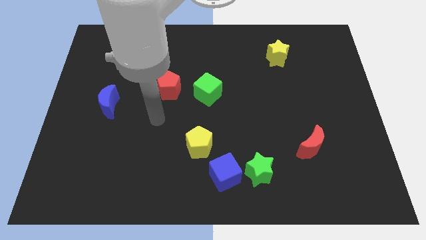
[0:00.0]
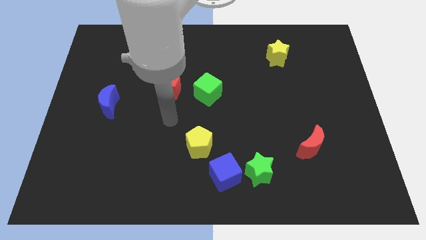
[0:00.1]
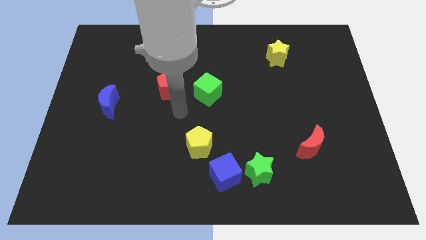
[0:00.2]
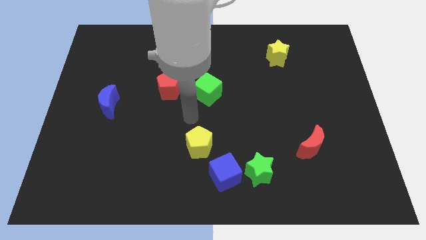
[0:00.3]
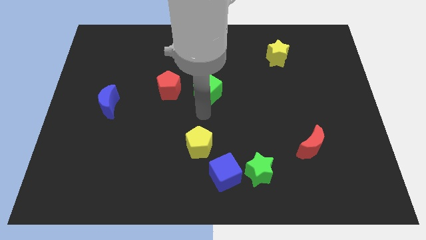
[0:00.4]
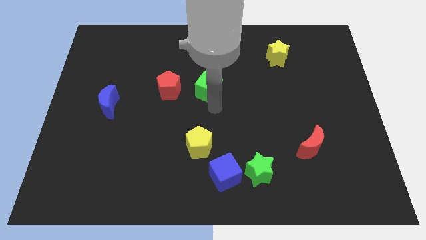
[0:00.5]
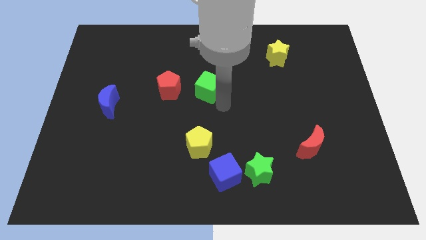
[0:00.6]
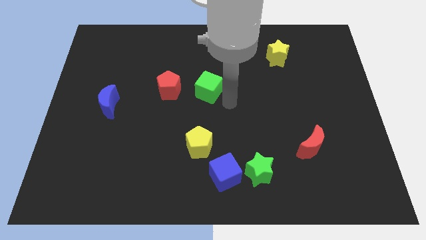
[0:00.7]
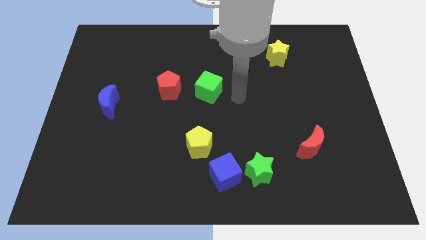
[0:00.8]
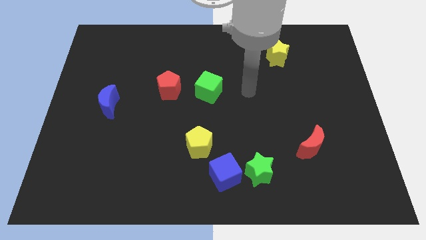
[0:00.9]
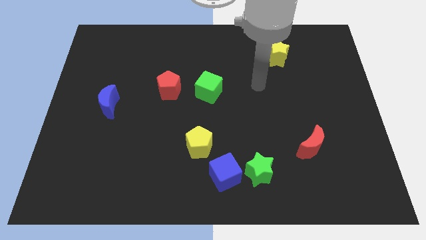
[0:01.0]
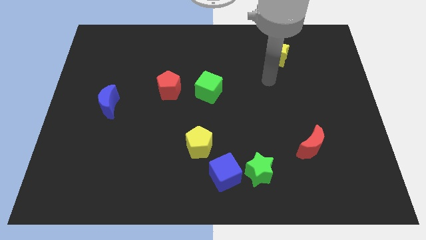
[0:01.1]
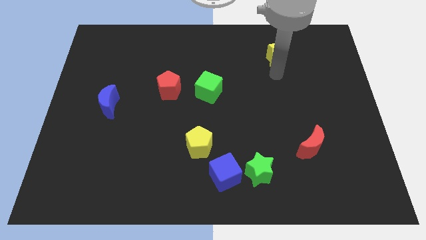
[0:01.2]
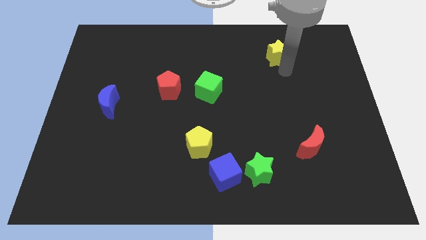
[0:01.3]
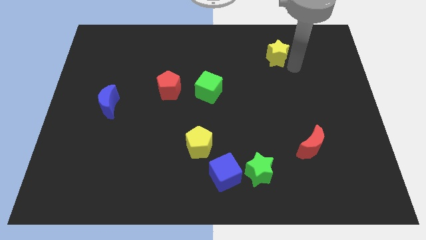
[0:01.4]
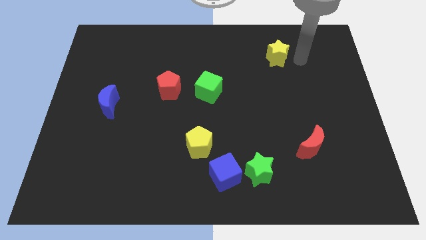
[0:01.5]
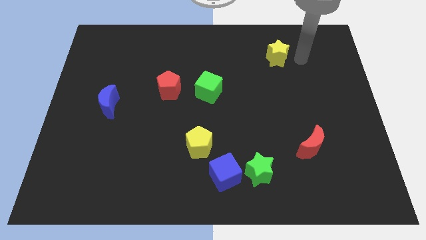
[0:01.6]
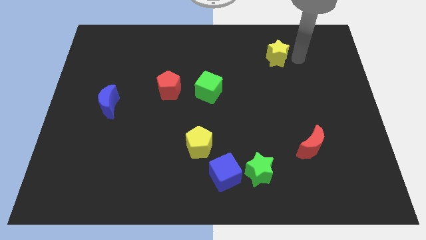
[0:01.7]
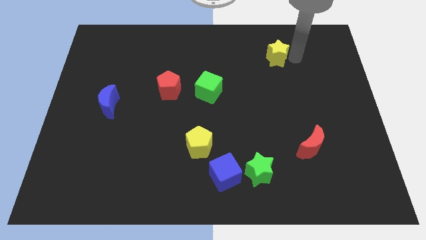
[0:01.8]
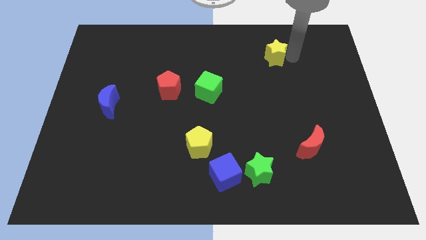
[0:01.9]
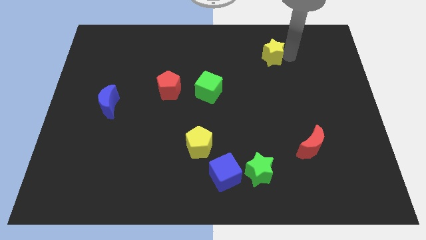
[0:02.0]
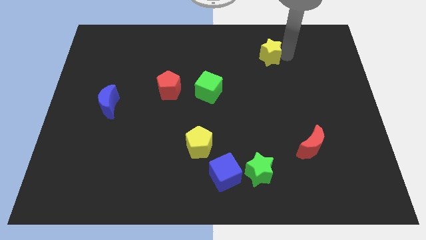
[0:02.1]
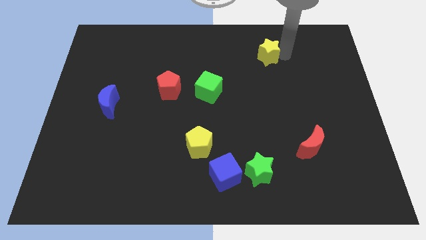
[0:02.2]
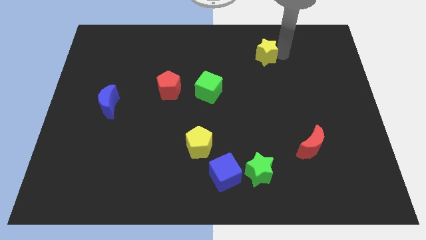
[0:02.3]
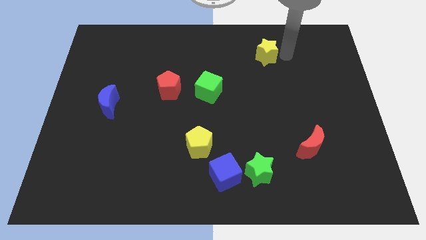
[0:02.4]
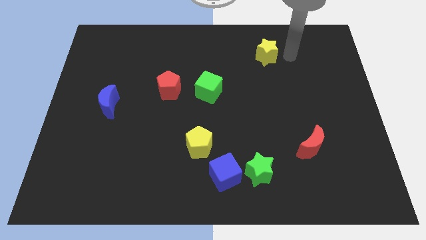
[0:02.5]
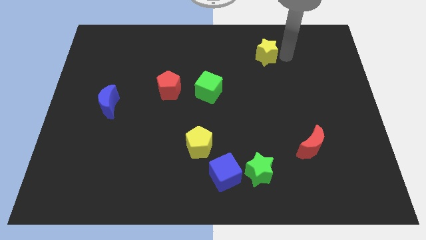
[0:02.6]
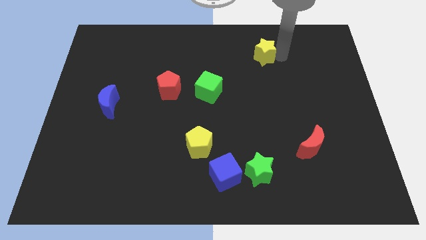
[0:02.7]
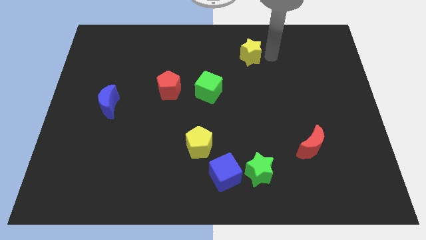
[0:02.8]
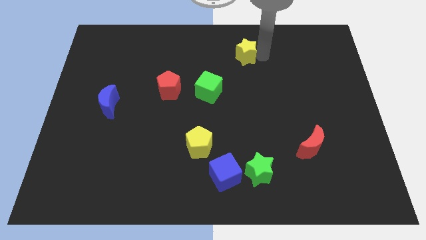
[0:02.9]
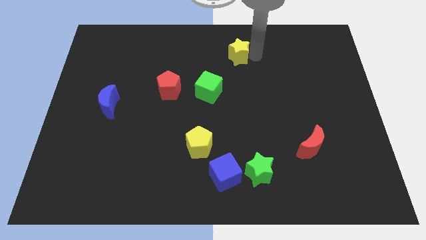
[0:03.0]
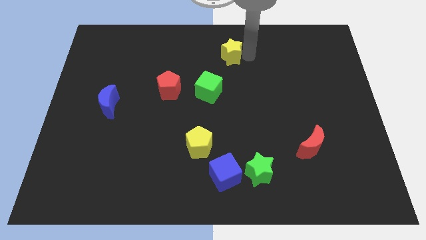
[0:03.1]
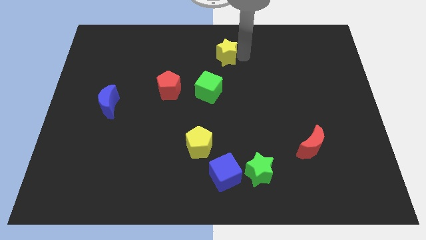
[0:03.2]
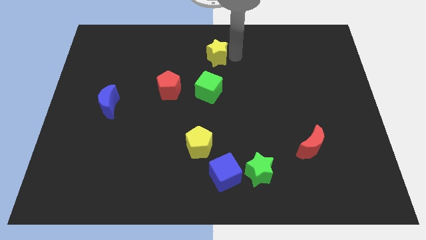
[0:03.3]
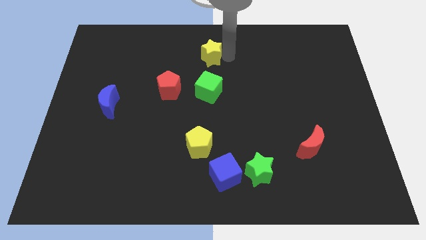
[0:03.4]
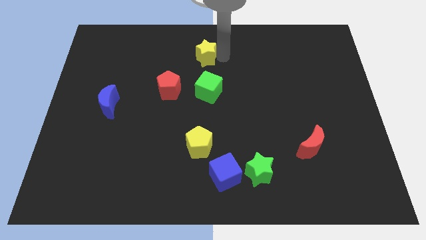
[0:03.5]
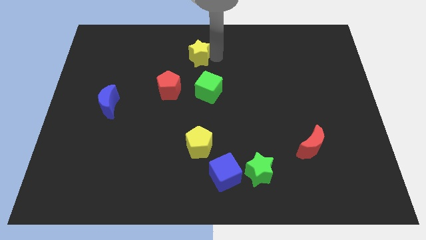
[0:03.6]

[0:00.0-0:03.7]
push the yellow star left

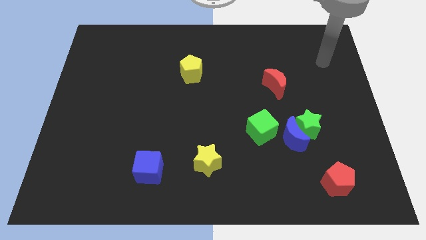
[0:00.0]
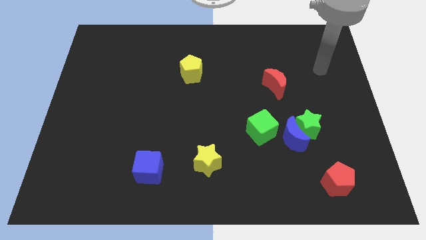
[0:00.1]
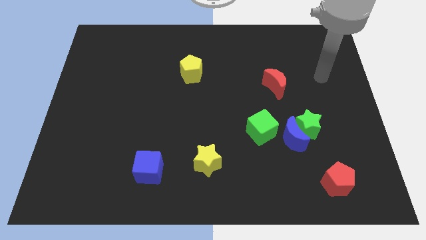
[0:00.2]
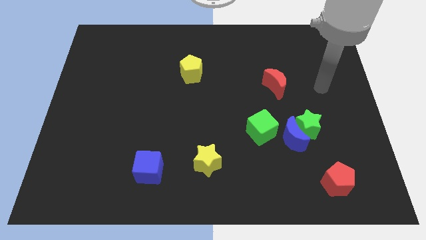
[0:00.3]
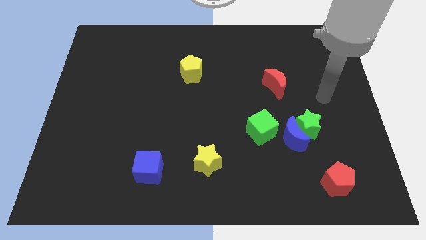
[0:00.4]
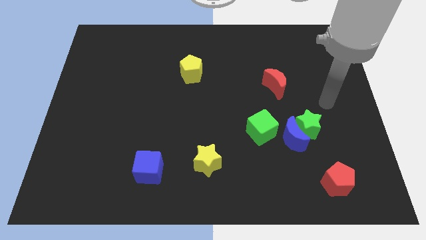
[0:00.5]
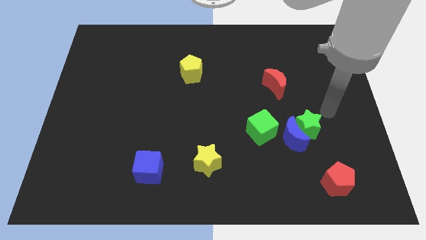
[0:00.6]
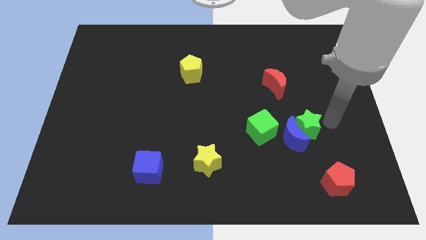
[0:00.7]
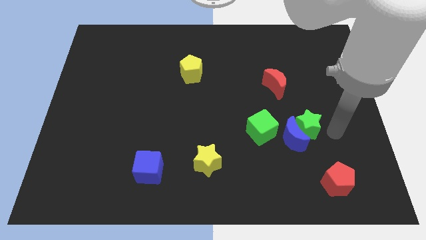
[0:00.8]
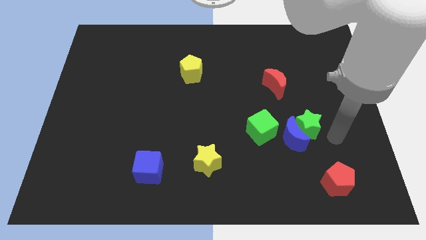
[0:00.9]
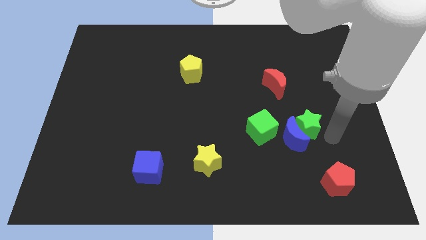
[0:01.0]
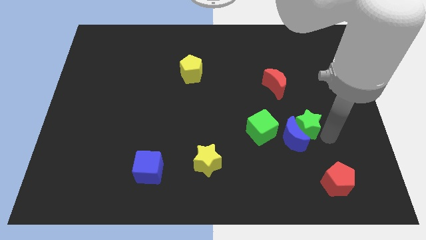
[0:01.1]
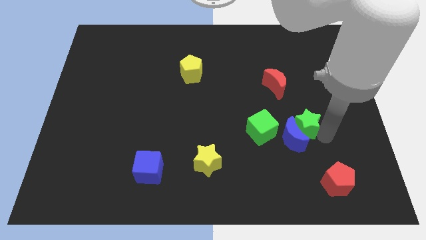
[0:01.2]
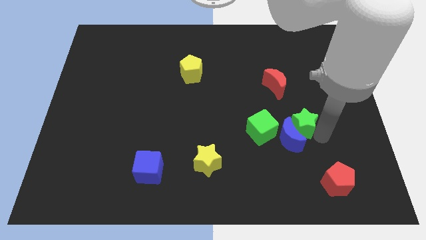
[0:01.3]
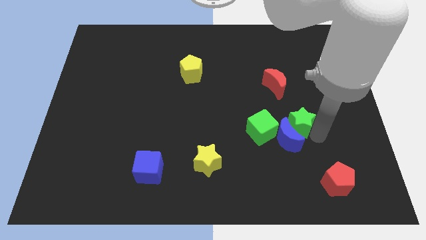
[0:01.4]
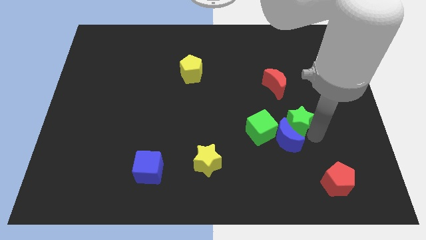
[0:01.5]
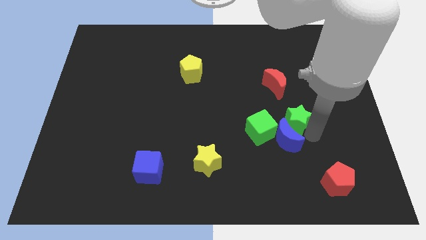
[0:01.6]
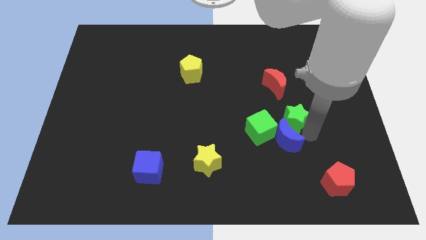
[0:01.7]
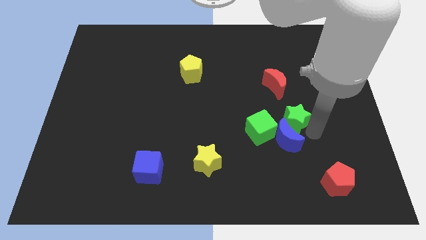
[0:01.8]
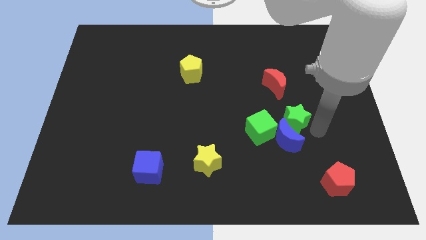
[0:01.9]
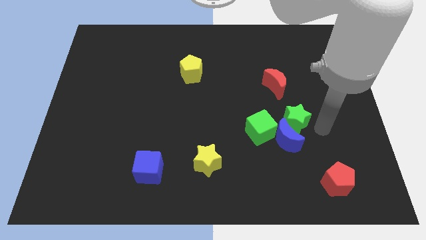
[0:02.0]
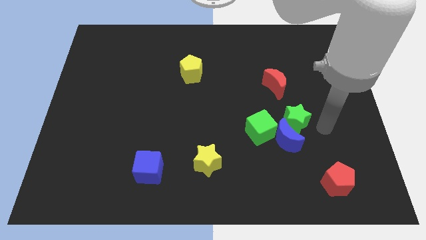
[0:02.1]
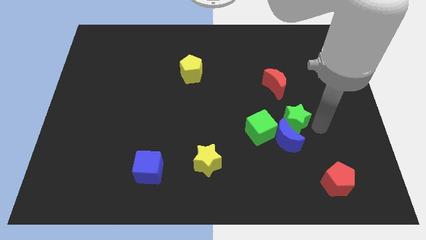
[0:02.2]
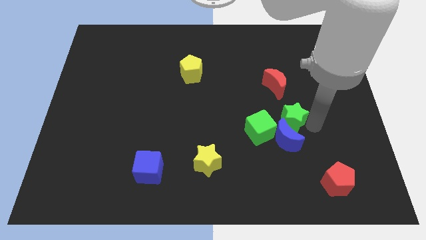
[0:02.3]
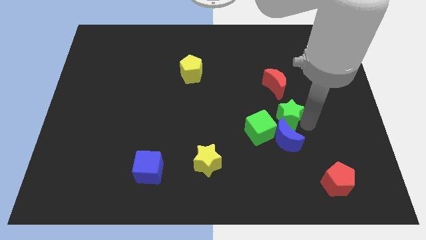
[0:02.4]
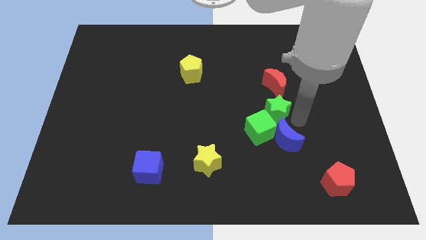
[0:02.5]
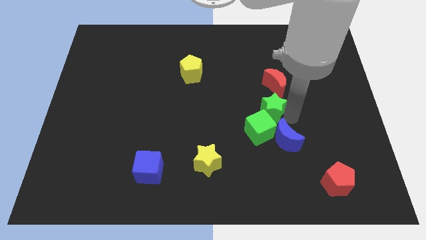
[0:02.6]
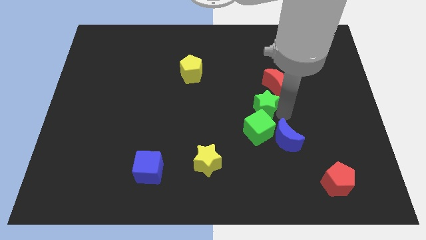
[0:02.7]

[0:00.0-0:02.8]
move the green star left a bit

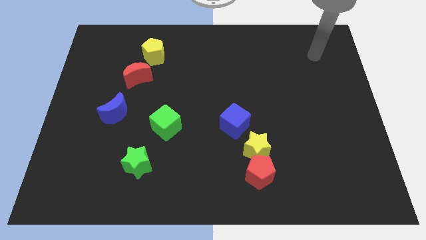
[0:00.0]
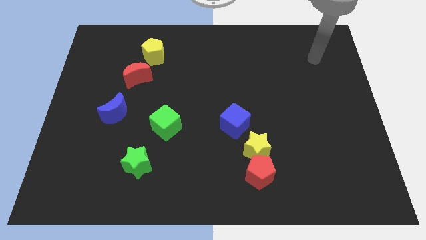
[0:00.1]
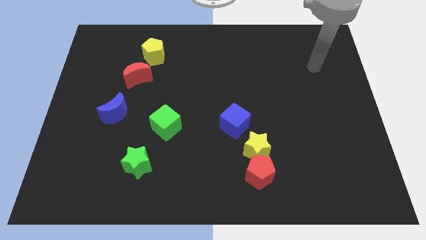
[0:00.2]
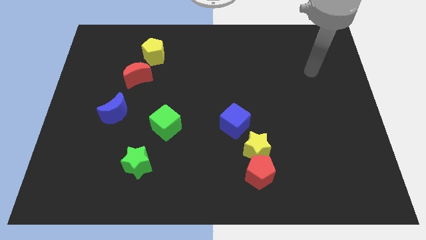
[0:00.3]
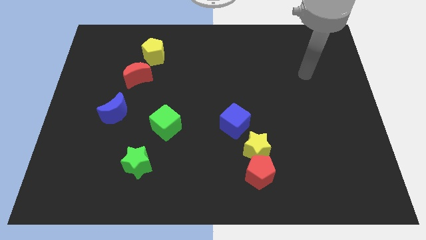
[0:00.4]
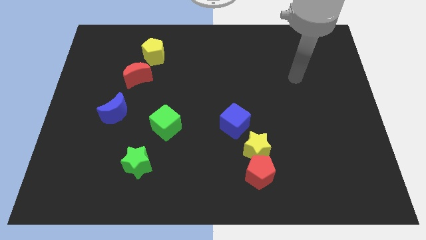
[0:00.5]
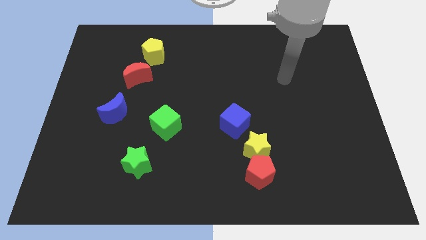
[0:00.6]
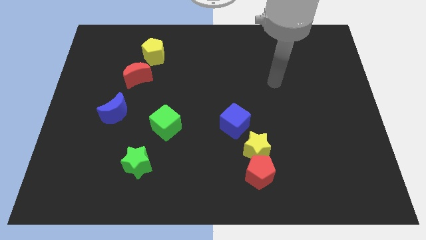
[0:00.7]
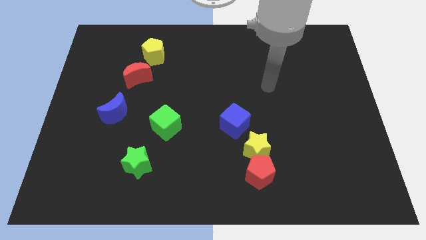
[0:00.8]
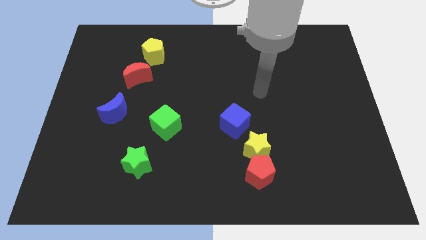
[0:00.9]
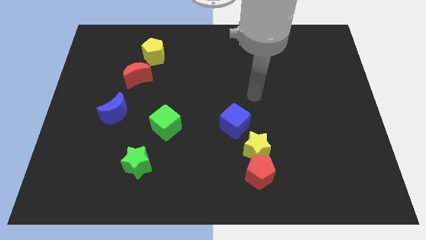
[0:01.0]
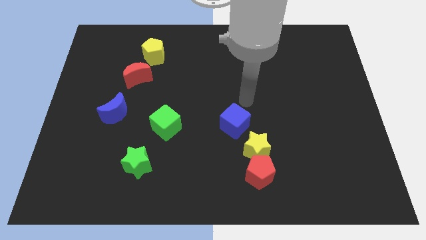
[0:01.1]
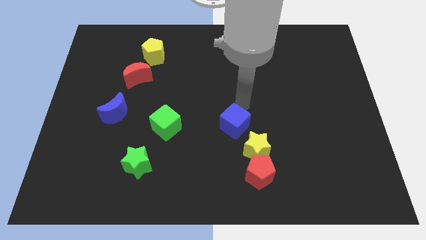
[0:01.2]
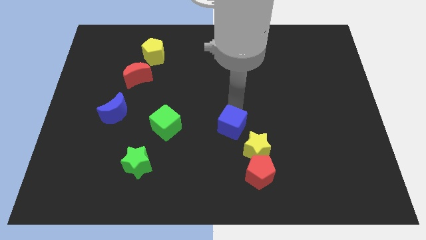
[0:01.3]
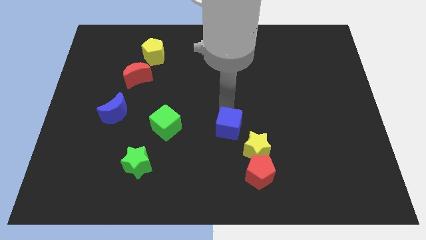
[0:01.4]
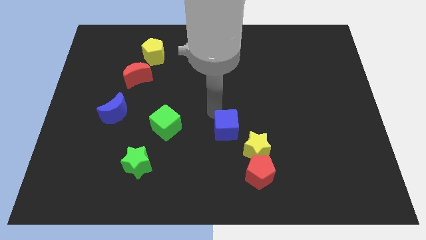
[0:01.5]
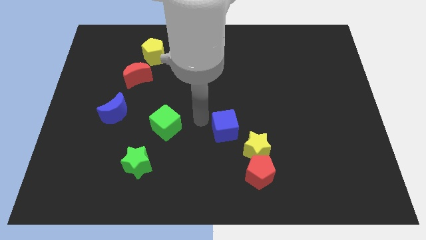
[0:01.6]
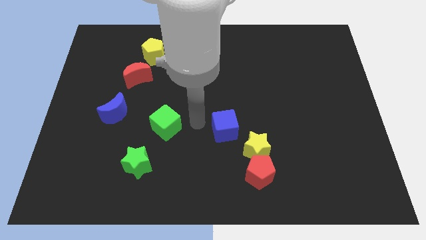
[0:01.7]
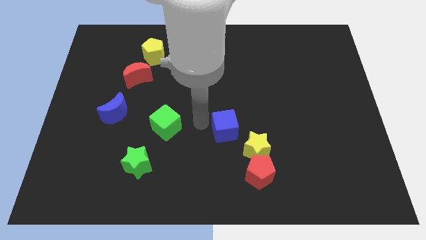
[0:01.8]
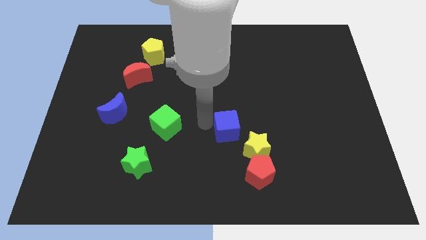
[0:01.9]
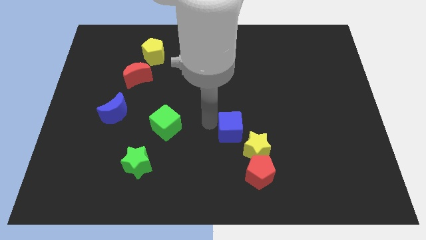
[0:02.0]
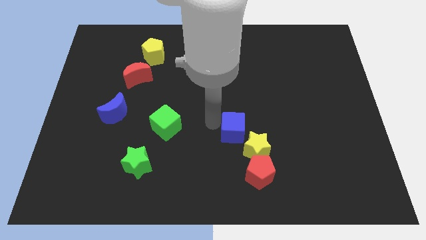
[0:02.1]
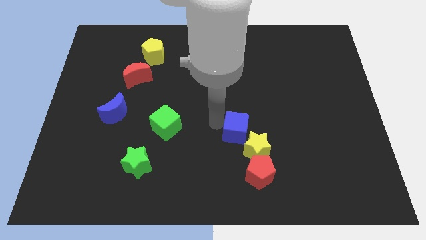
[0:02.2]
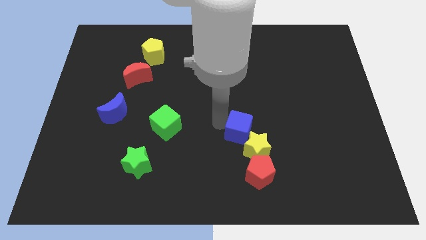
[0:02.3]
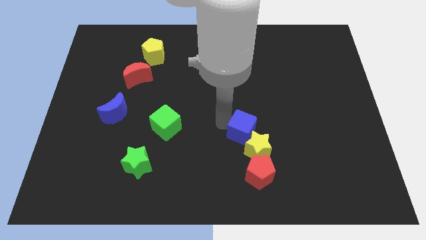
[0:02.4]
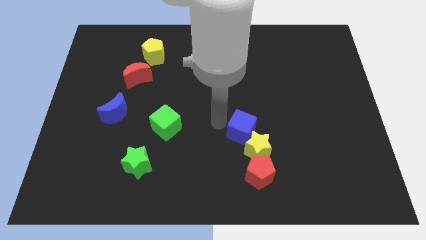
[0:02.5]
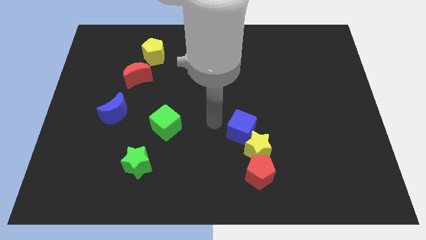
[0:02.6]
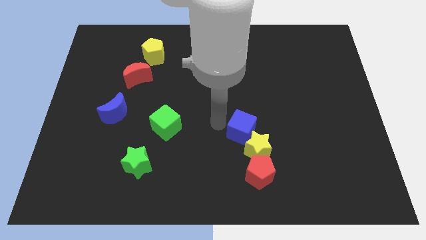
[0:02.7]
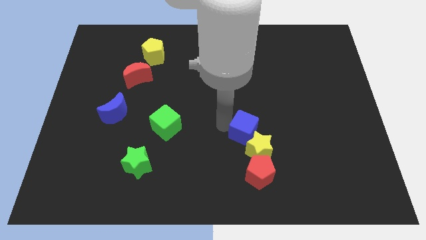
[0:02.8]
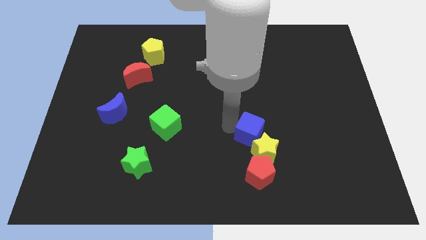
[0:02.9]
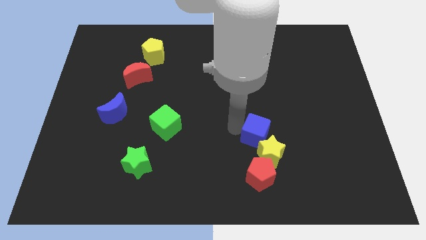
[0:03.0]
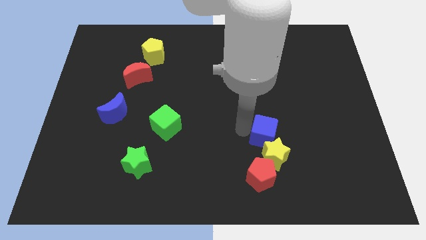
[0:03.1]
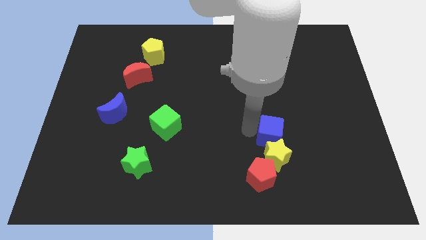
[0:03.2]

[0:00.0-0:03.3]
slide the blue cube a little bit downwards and right diagonally
